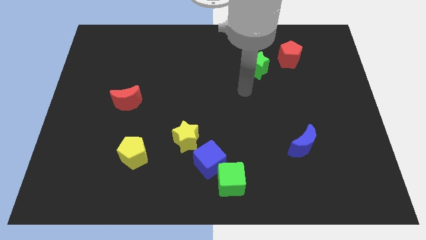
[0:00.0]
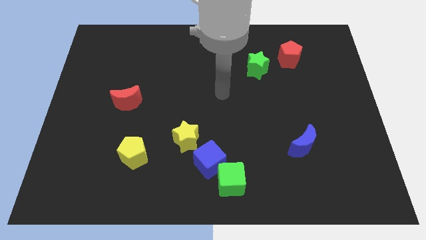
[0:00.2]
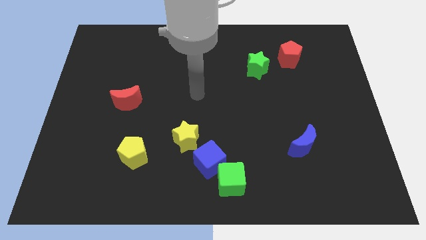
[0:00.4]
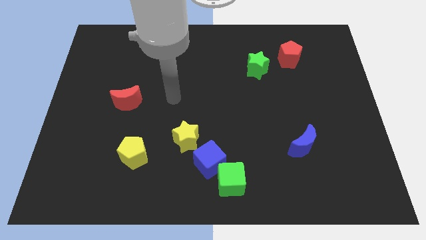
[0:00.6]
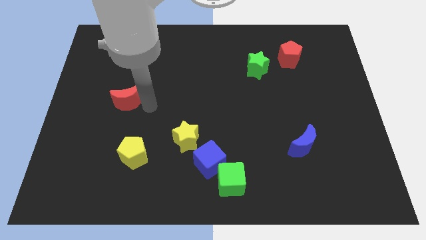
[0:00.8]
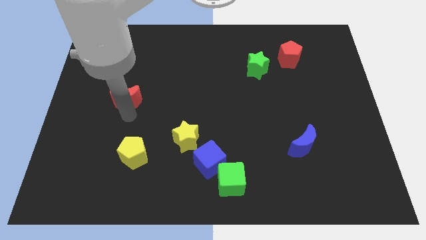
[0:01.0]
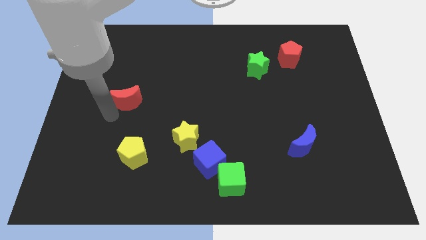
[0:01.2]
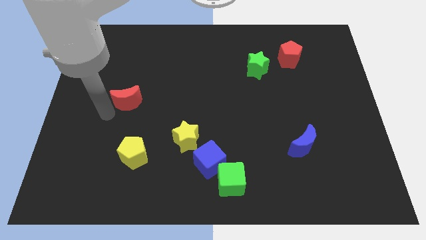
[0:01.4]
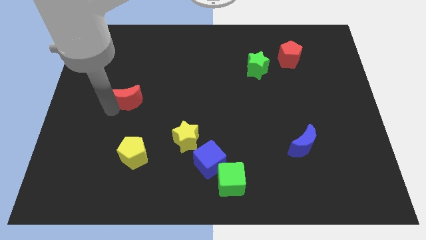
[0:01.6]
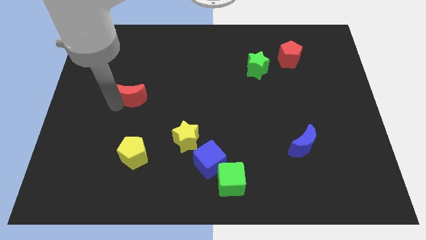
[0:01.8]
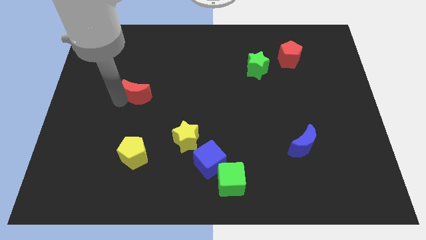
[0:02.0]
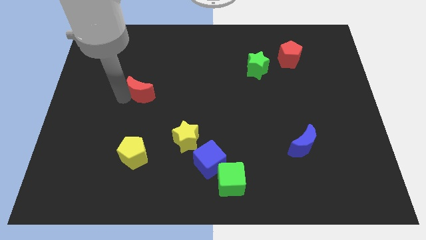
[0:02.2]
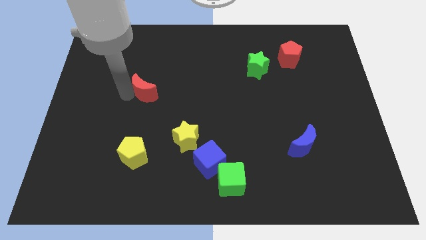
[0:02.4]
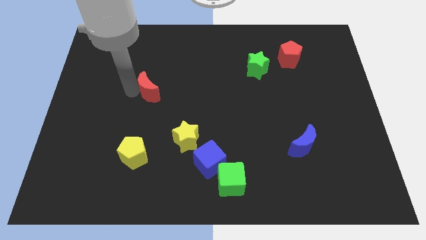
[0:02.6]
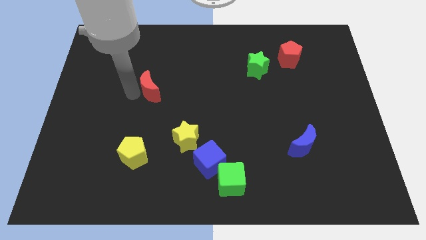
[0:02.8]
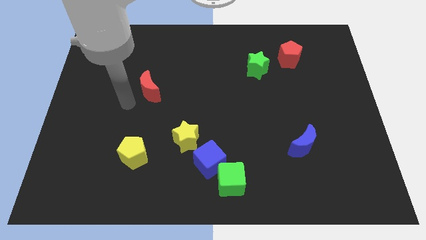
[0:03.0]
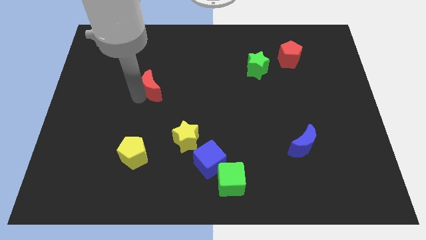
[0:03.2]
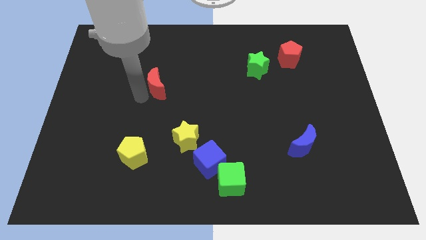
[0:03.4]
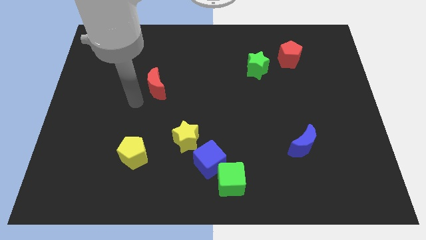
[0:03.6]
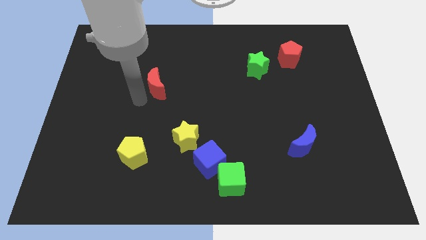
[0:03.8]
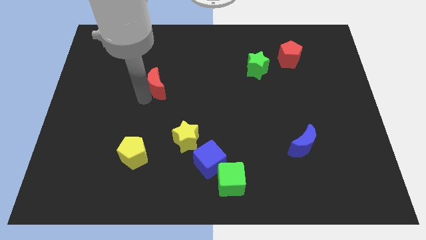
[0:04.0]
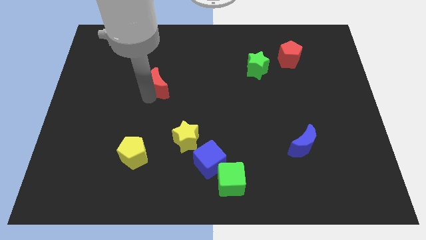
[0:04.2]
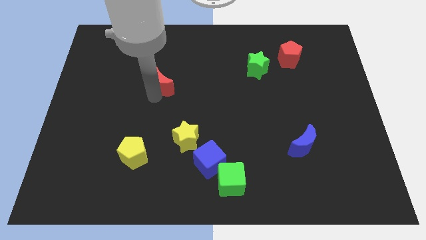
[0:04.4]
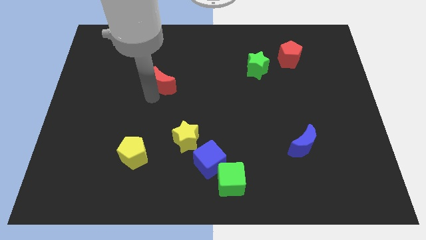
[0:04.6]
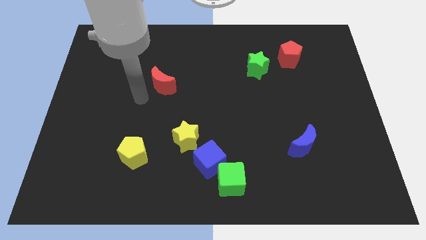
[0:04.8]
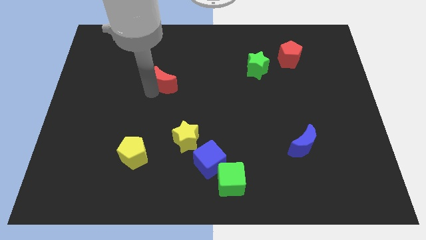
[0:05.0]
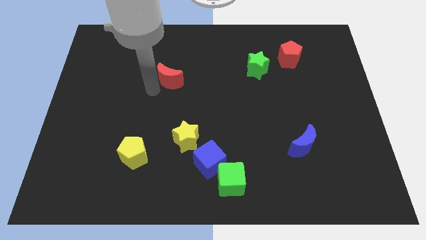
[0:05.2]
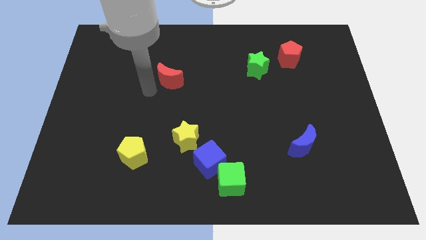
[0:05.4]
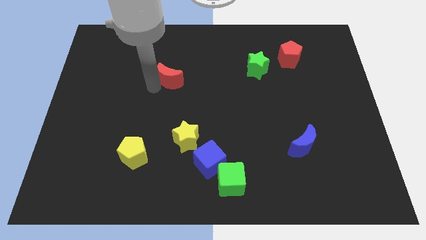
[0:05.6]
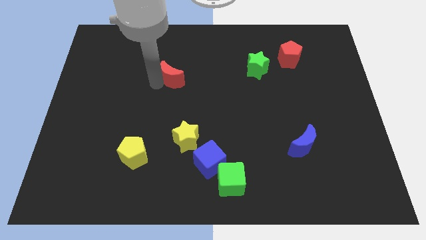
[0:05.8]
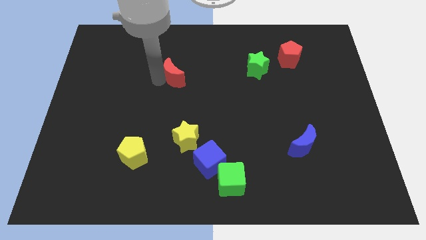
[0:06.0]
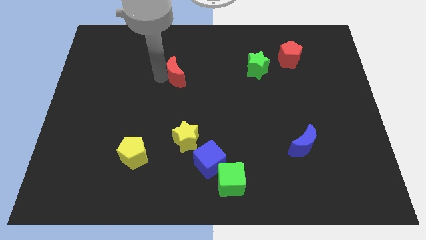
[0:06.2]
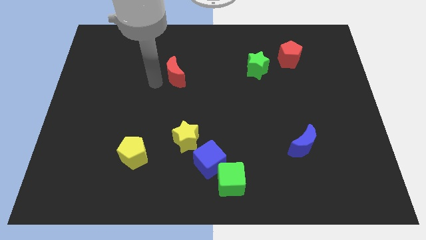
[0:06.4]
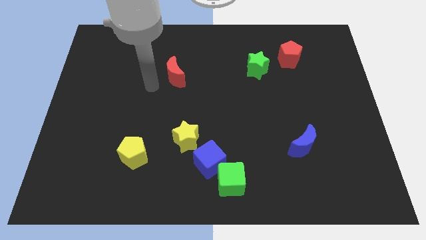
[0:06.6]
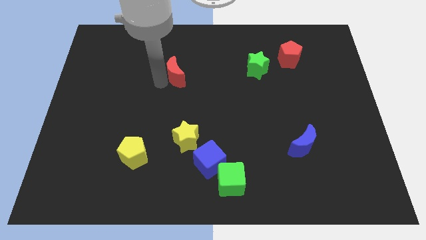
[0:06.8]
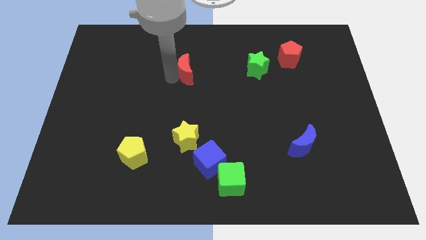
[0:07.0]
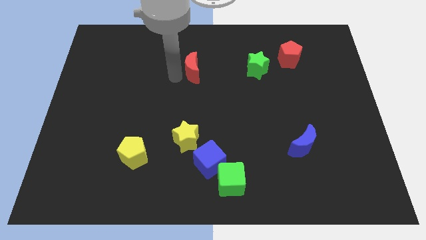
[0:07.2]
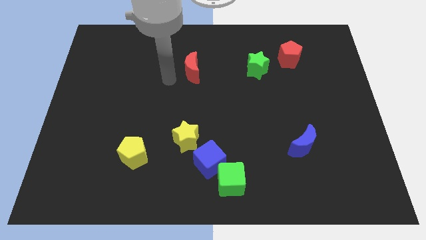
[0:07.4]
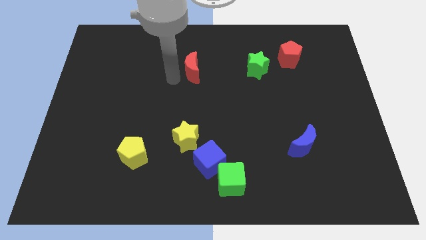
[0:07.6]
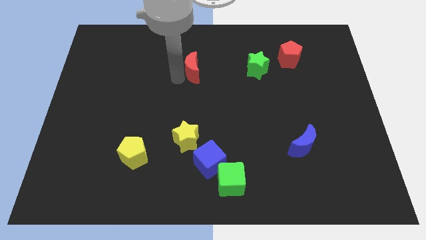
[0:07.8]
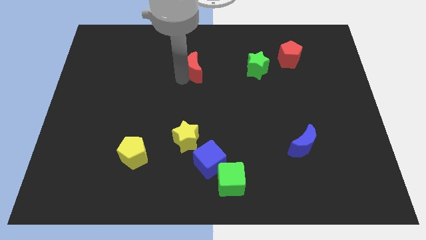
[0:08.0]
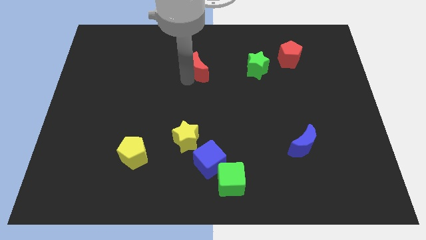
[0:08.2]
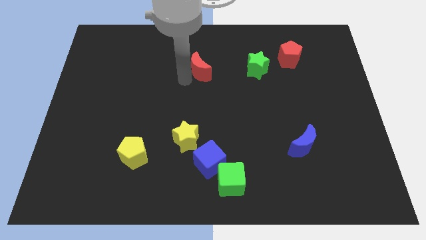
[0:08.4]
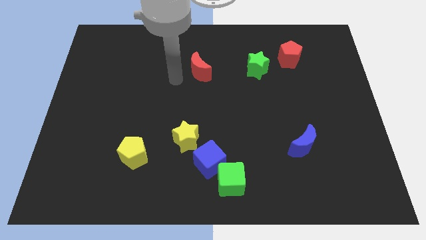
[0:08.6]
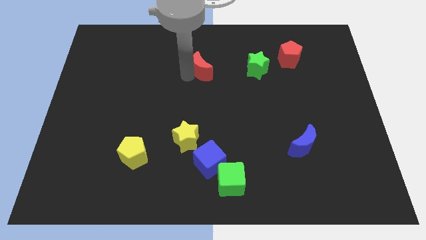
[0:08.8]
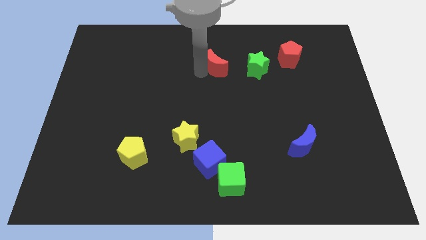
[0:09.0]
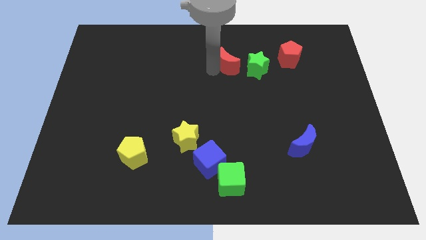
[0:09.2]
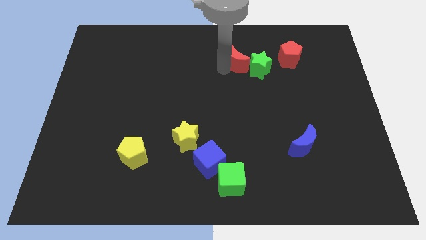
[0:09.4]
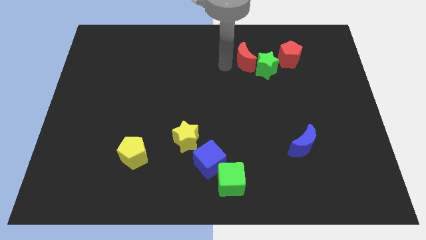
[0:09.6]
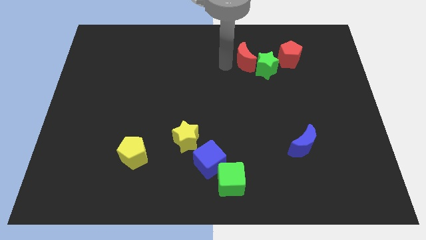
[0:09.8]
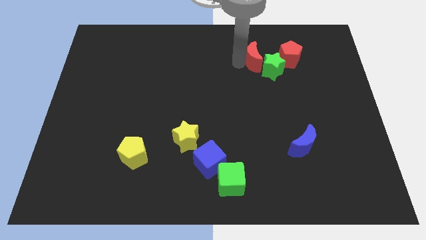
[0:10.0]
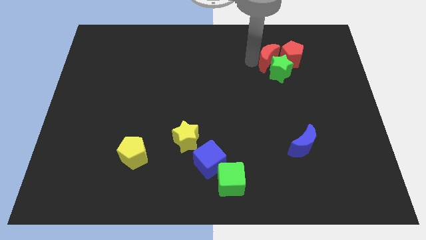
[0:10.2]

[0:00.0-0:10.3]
put the red moon close to the red pentagon

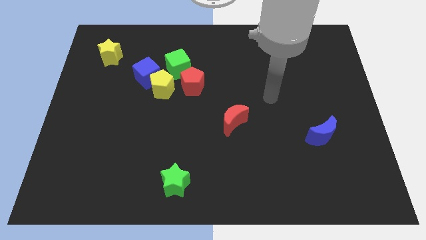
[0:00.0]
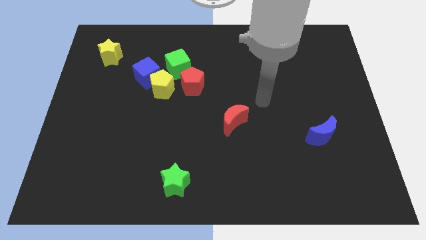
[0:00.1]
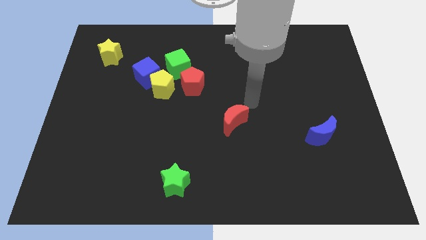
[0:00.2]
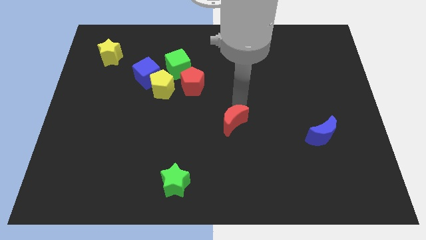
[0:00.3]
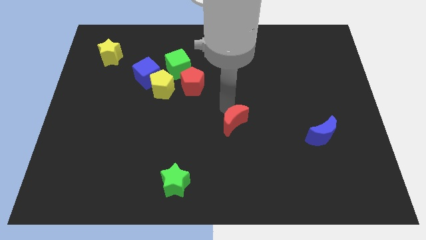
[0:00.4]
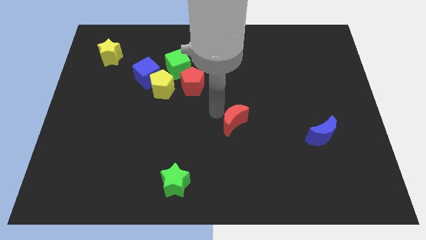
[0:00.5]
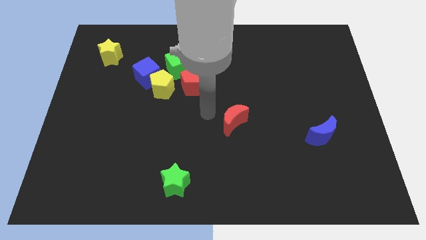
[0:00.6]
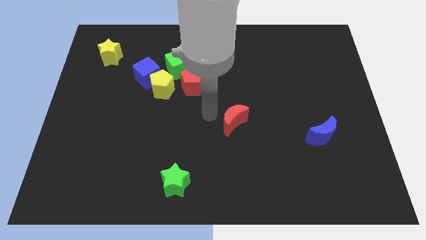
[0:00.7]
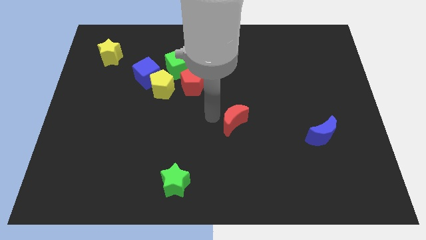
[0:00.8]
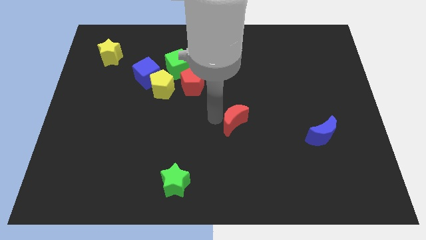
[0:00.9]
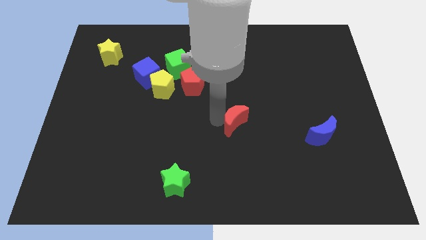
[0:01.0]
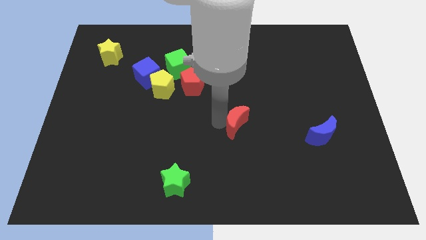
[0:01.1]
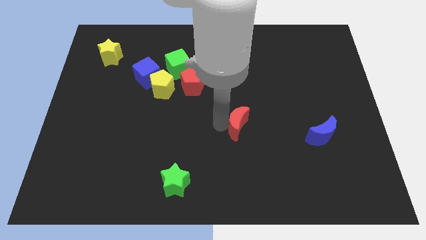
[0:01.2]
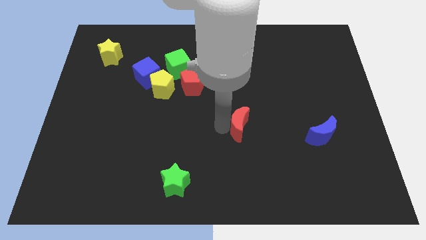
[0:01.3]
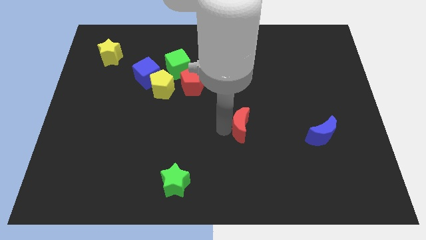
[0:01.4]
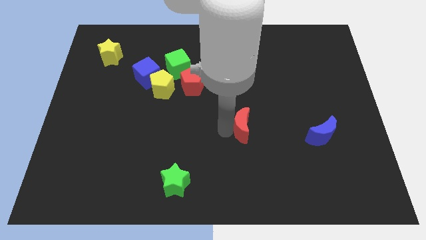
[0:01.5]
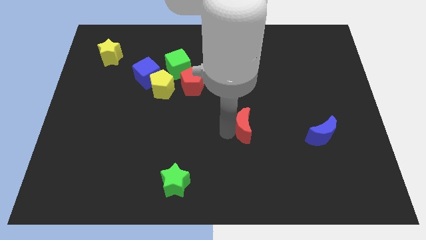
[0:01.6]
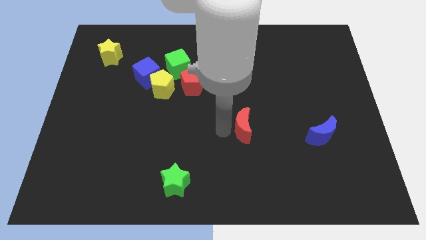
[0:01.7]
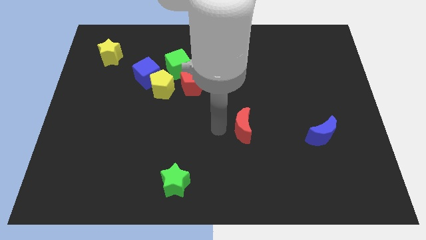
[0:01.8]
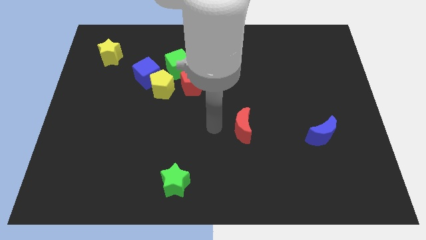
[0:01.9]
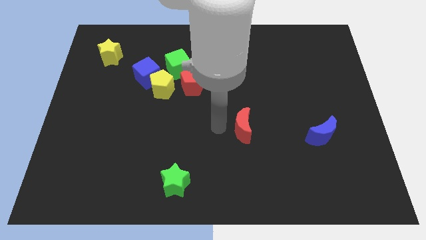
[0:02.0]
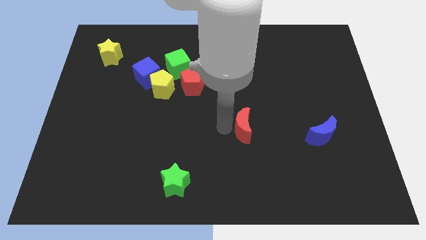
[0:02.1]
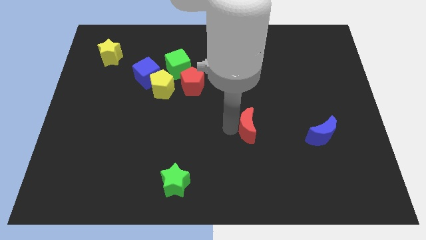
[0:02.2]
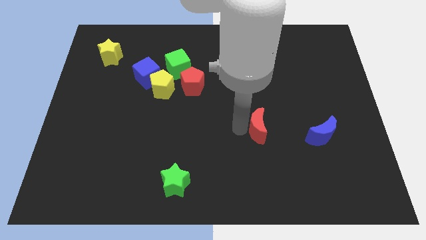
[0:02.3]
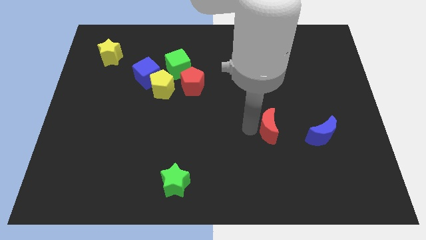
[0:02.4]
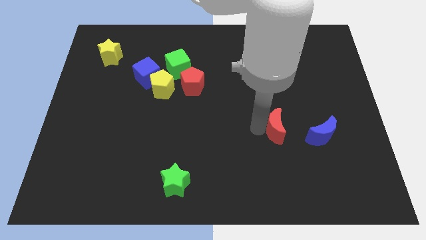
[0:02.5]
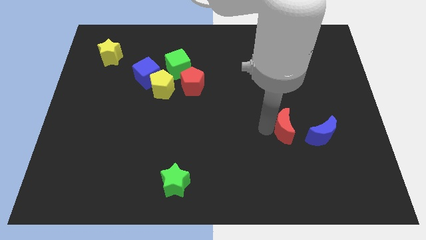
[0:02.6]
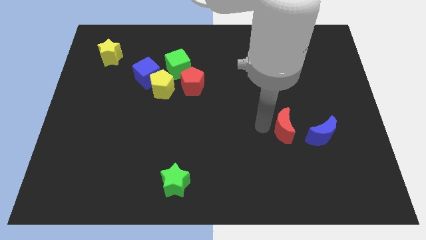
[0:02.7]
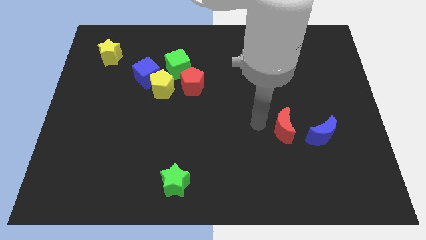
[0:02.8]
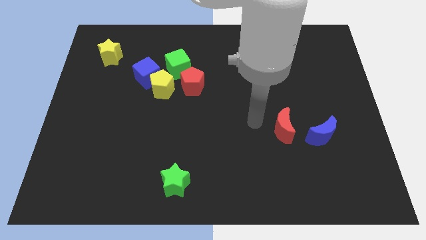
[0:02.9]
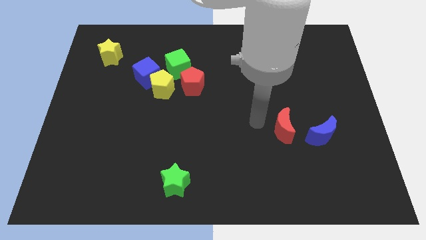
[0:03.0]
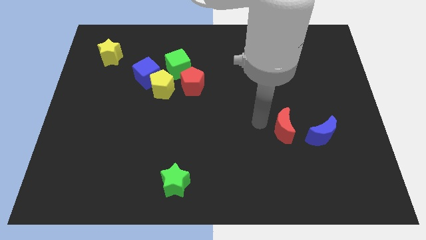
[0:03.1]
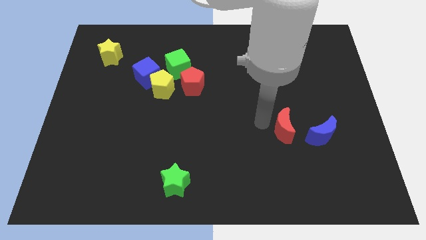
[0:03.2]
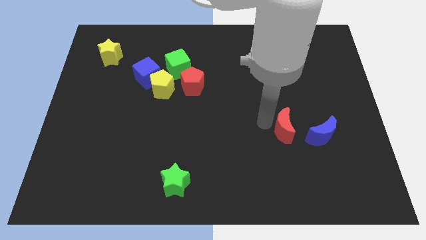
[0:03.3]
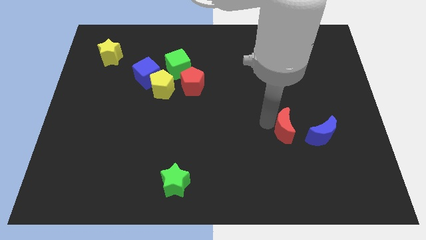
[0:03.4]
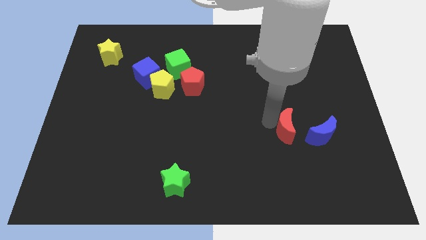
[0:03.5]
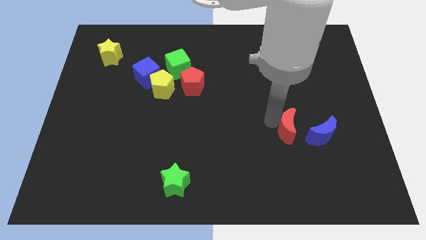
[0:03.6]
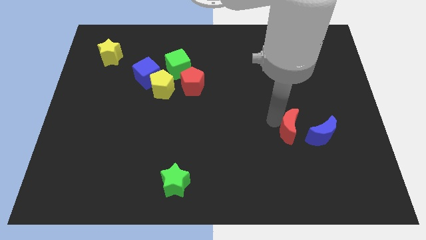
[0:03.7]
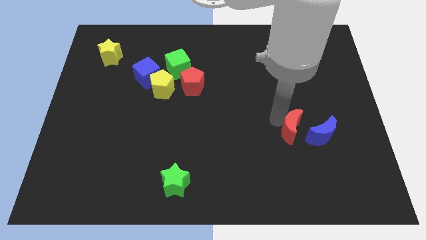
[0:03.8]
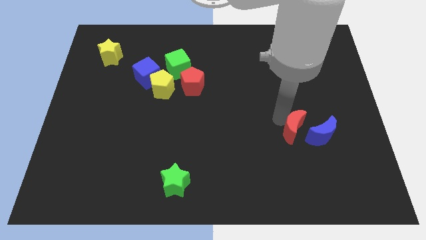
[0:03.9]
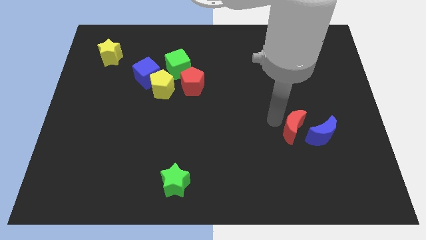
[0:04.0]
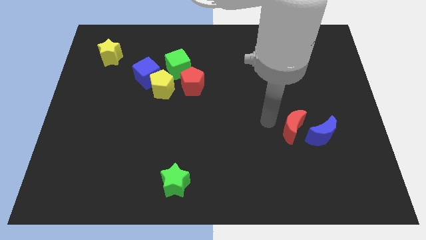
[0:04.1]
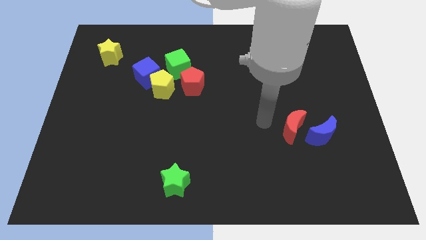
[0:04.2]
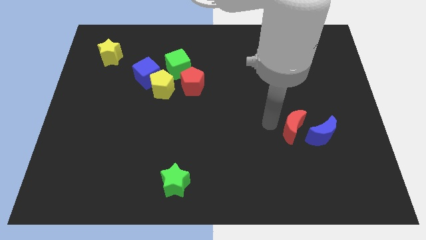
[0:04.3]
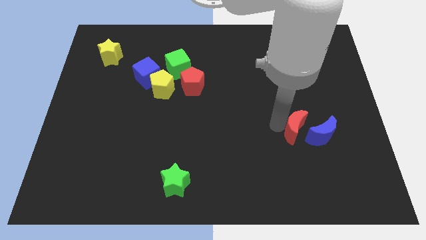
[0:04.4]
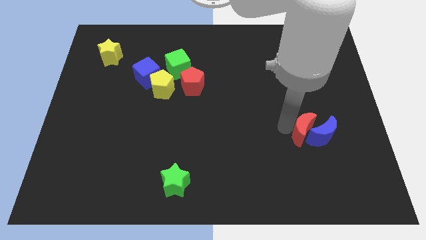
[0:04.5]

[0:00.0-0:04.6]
move the red moon next to the blue moon
